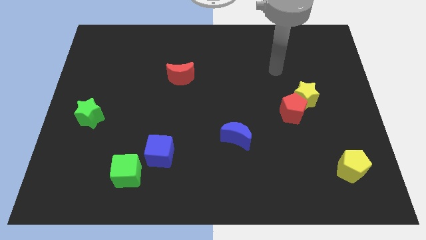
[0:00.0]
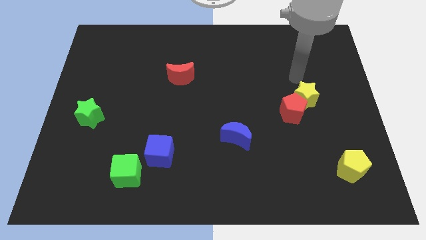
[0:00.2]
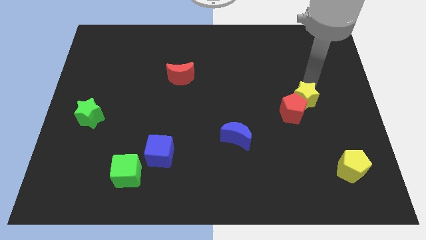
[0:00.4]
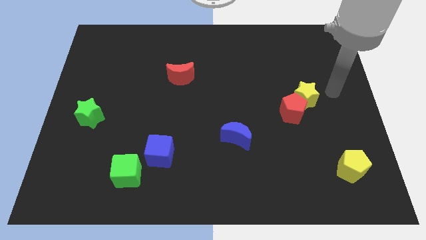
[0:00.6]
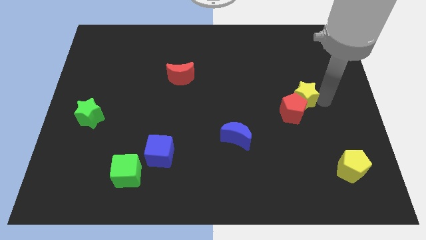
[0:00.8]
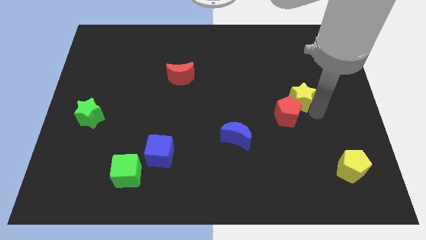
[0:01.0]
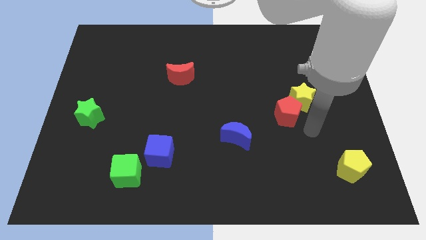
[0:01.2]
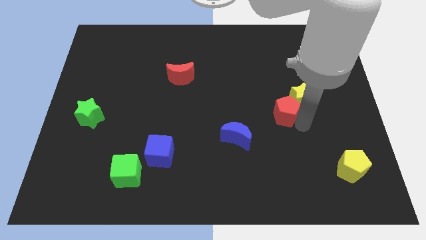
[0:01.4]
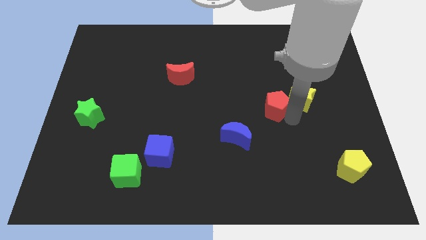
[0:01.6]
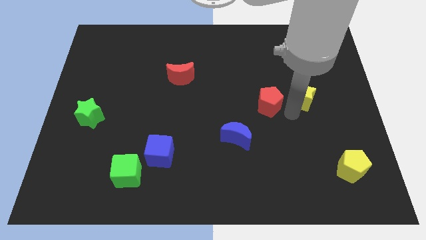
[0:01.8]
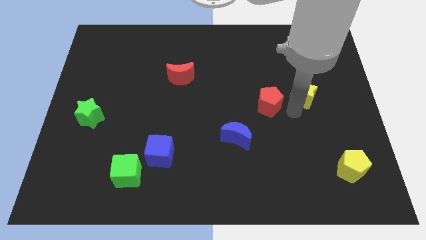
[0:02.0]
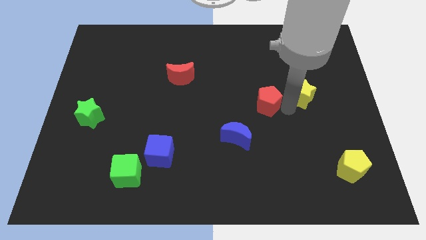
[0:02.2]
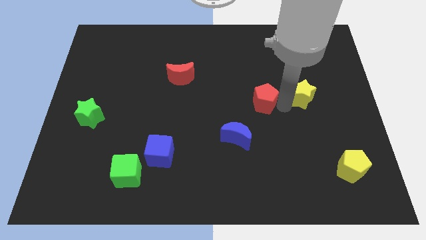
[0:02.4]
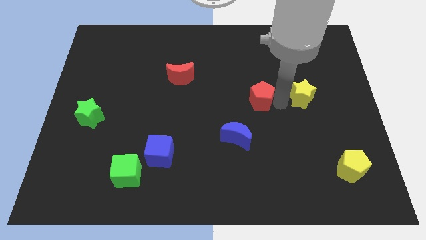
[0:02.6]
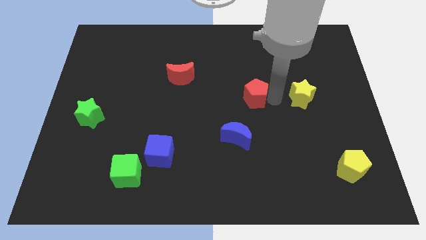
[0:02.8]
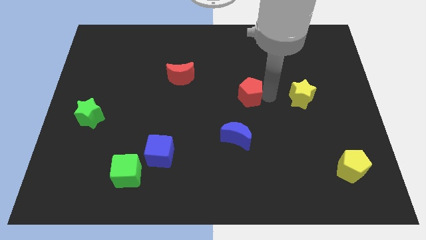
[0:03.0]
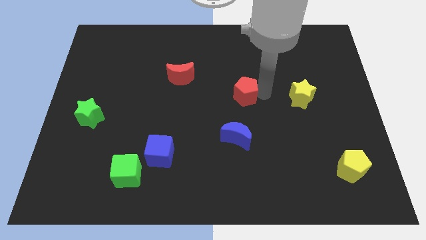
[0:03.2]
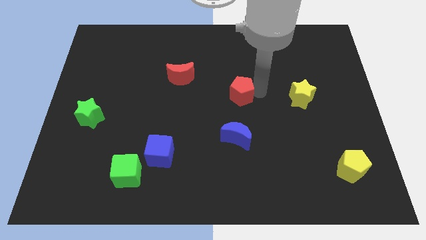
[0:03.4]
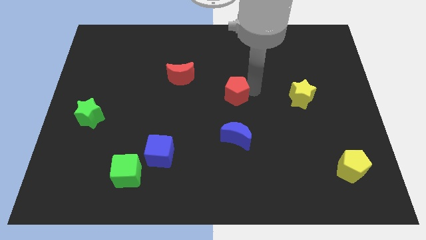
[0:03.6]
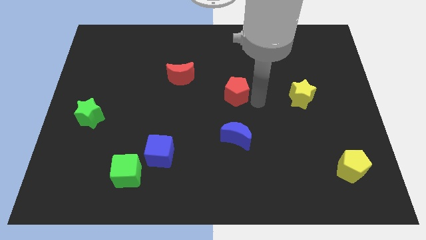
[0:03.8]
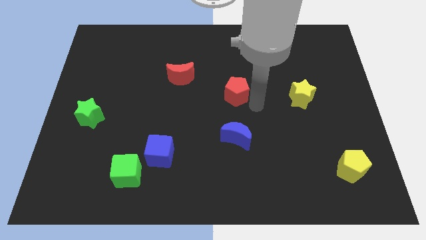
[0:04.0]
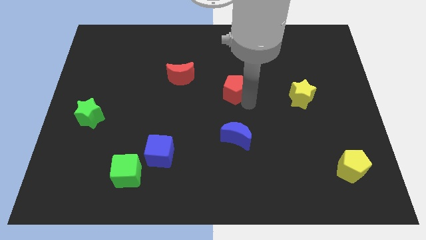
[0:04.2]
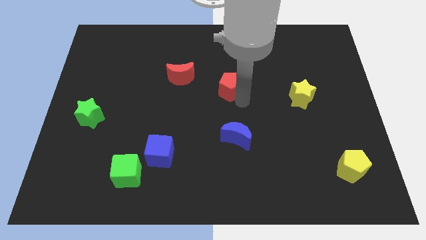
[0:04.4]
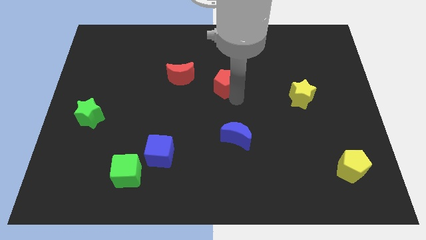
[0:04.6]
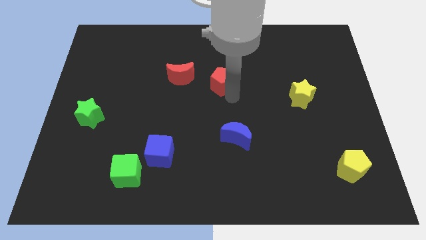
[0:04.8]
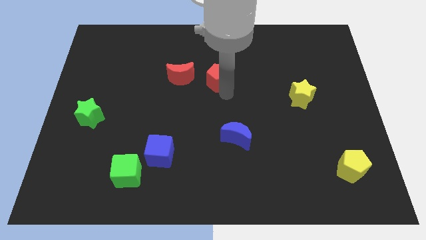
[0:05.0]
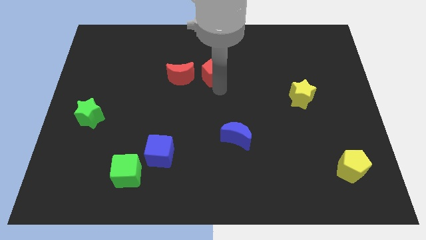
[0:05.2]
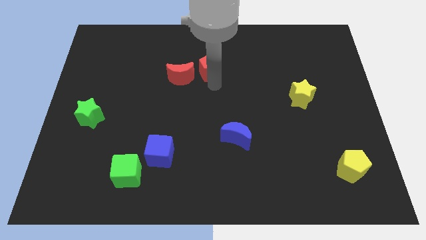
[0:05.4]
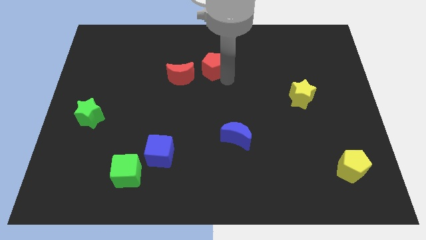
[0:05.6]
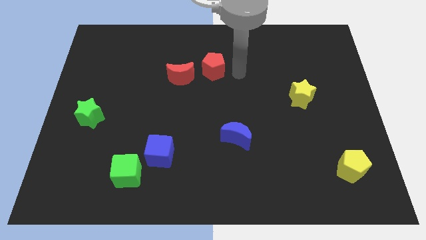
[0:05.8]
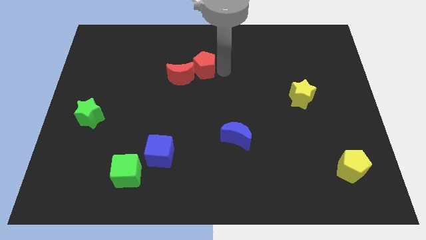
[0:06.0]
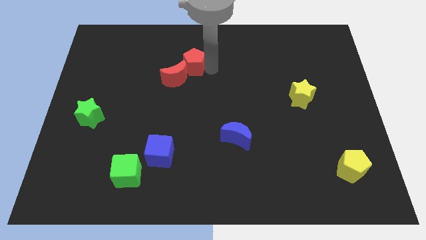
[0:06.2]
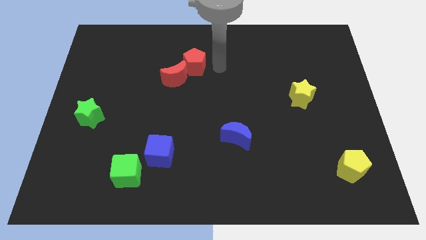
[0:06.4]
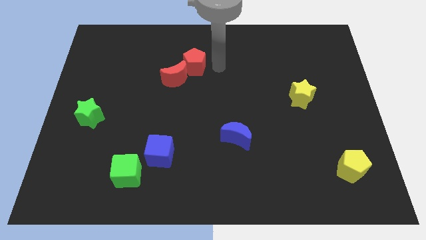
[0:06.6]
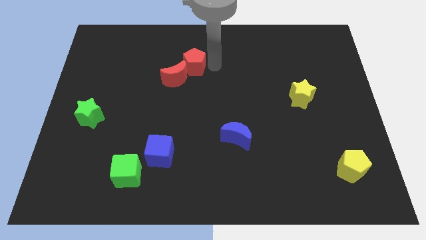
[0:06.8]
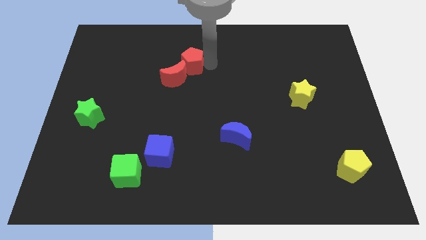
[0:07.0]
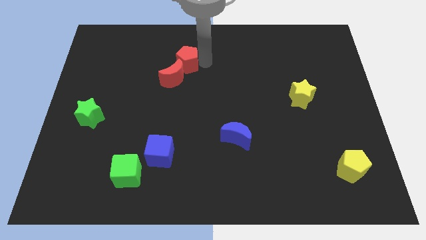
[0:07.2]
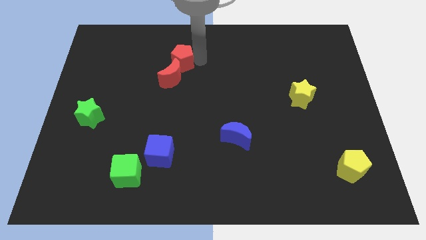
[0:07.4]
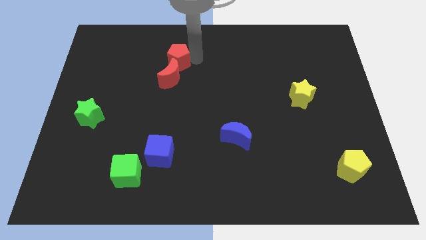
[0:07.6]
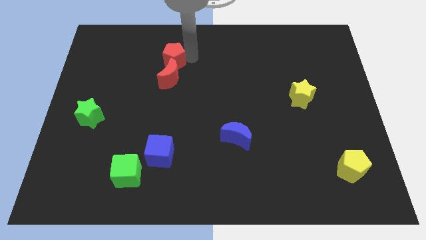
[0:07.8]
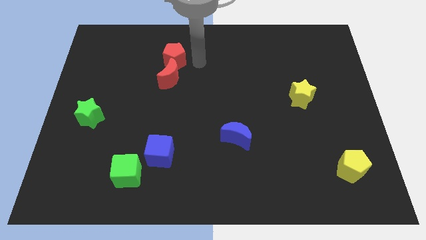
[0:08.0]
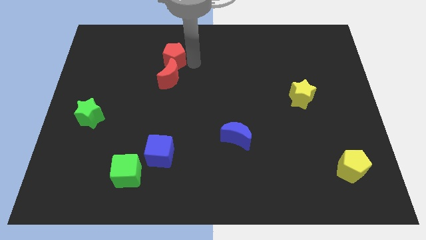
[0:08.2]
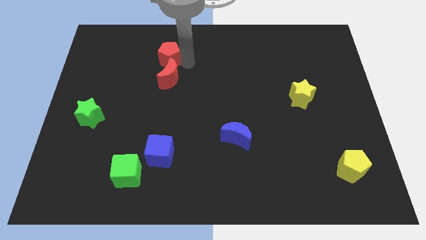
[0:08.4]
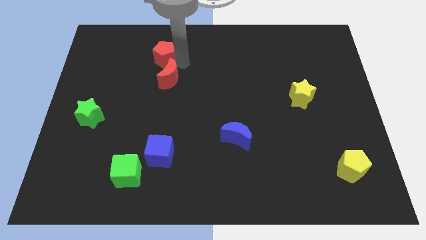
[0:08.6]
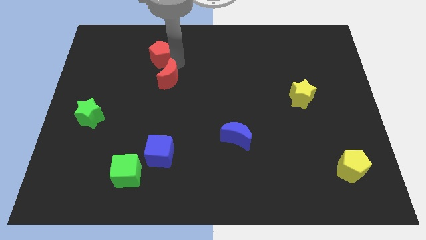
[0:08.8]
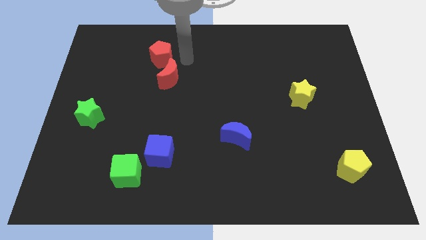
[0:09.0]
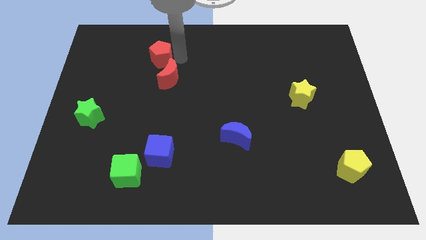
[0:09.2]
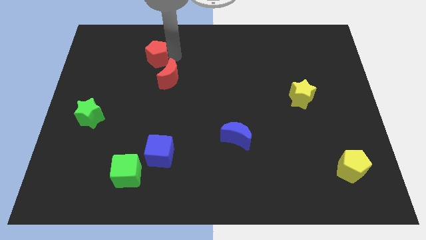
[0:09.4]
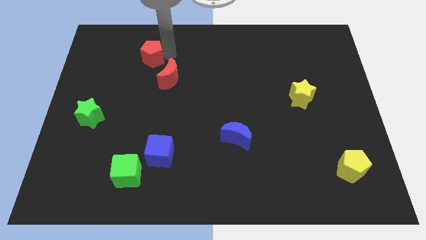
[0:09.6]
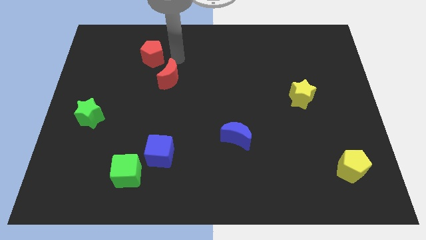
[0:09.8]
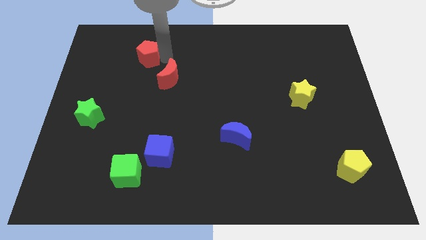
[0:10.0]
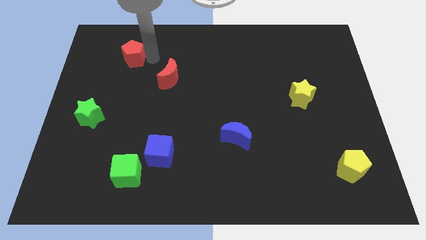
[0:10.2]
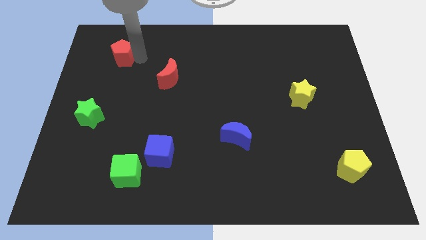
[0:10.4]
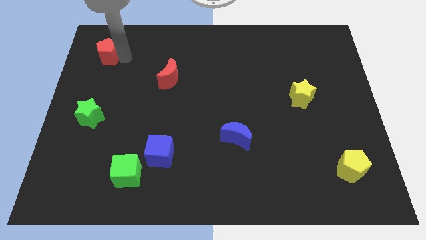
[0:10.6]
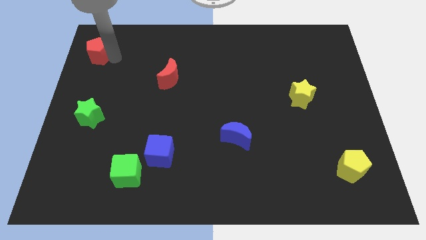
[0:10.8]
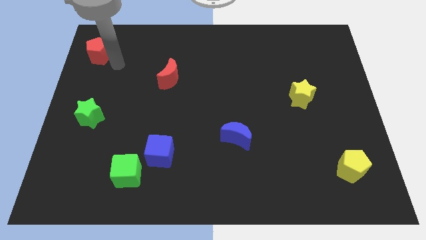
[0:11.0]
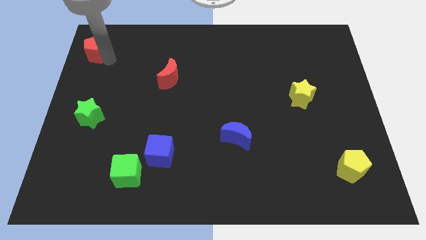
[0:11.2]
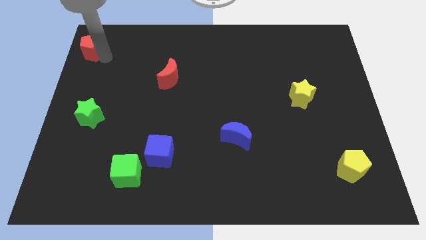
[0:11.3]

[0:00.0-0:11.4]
move the red pentagon to the upper left corner

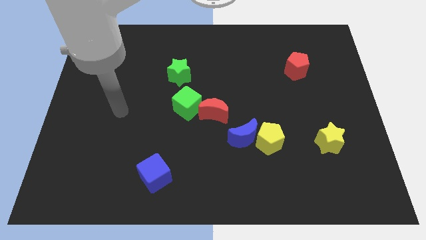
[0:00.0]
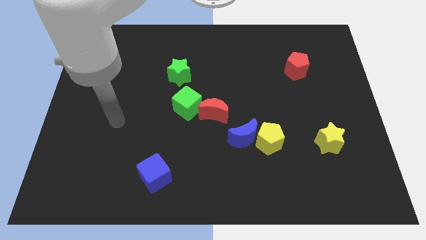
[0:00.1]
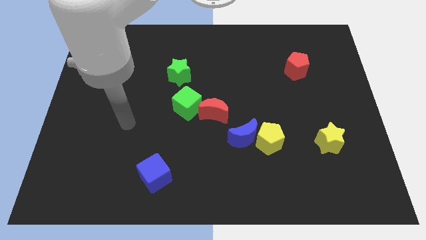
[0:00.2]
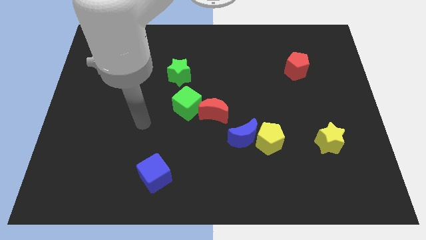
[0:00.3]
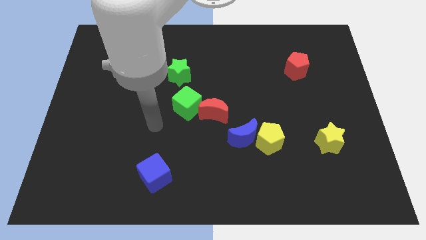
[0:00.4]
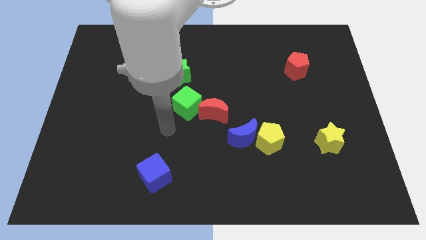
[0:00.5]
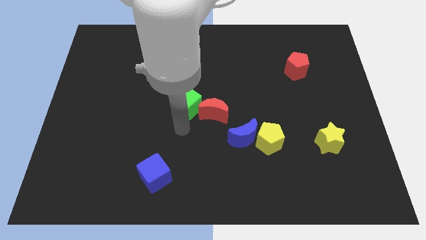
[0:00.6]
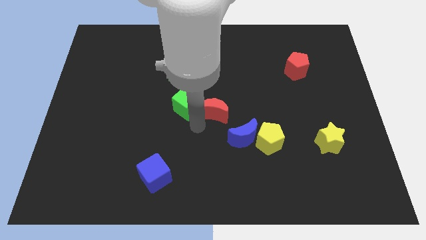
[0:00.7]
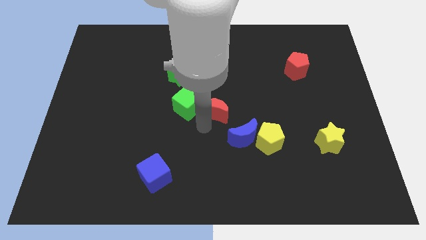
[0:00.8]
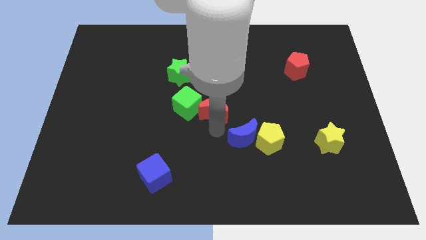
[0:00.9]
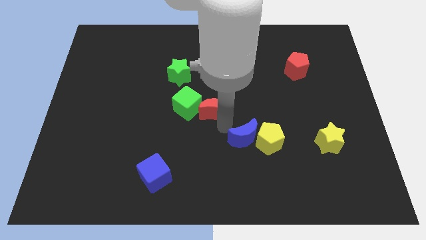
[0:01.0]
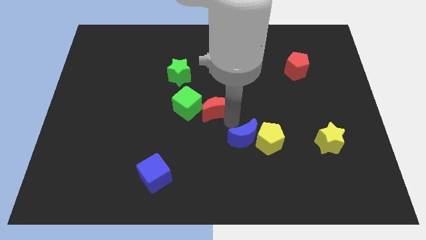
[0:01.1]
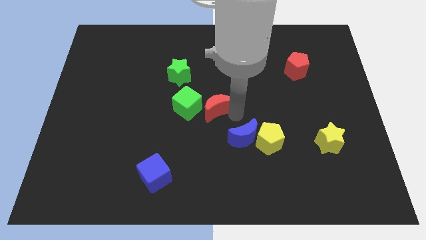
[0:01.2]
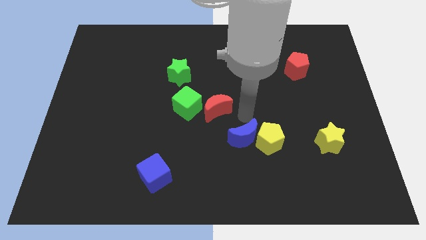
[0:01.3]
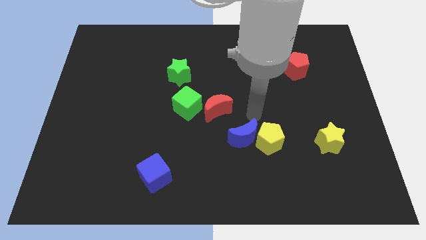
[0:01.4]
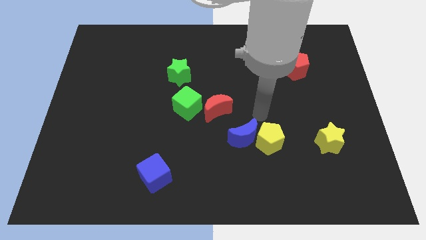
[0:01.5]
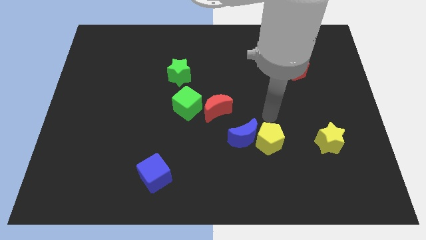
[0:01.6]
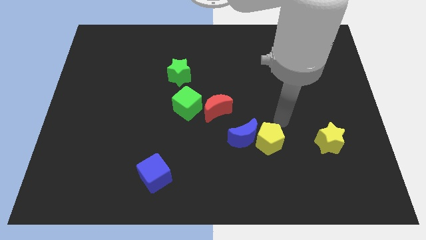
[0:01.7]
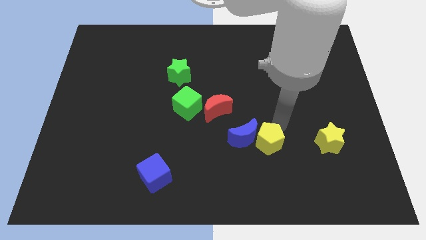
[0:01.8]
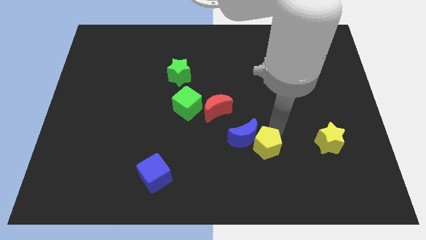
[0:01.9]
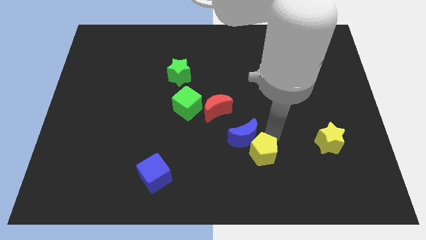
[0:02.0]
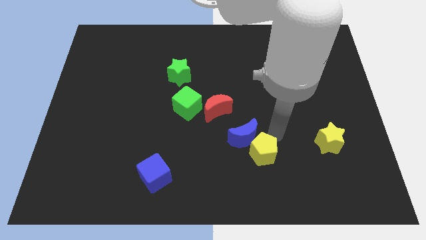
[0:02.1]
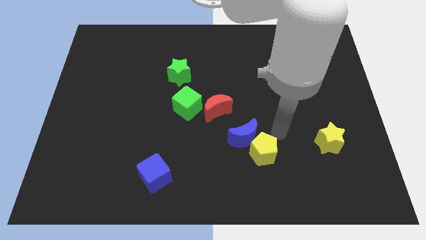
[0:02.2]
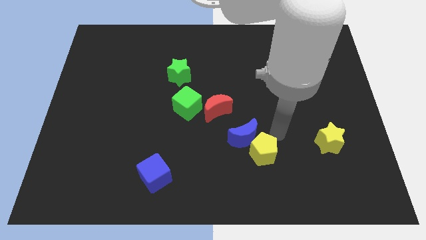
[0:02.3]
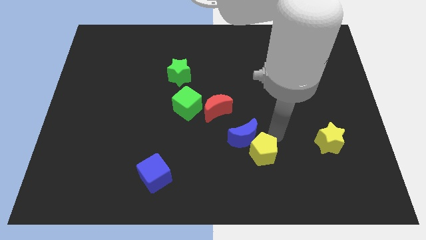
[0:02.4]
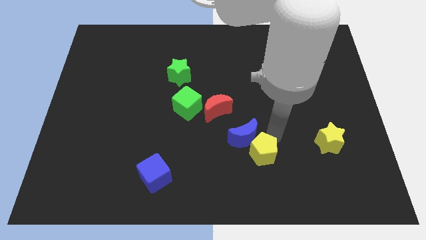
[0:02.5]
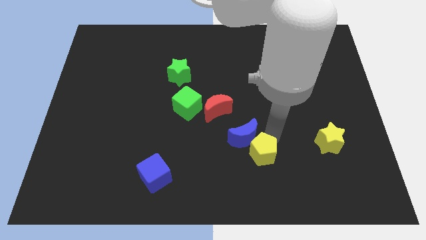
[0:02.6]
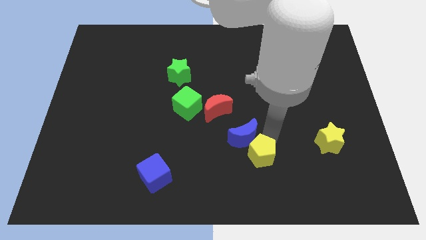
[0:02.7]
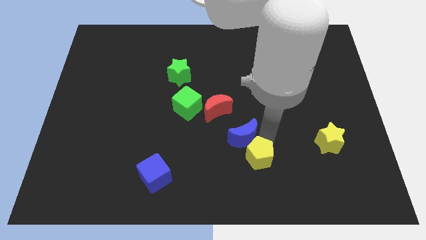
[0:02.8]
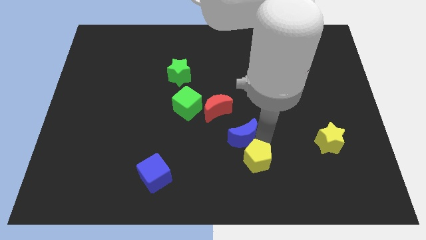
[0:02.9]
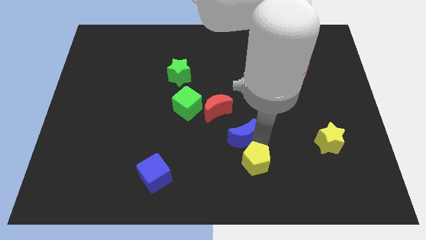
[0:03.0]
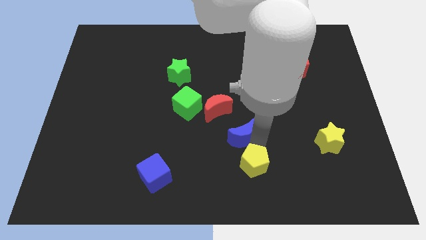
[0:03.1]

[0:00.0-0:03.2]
slide the yellow pentagon to the bottom
